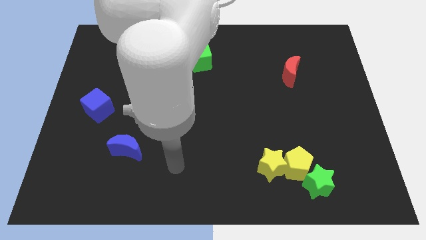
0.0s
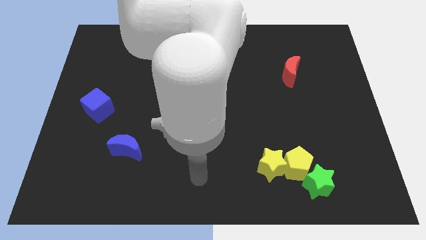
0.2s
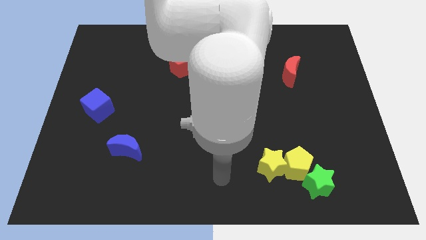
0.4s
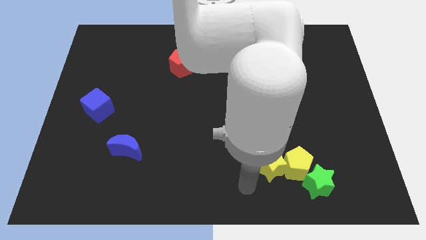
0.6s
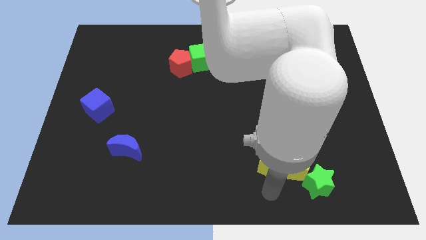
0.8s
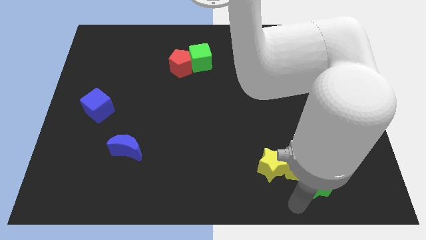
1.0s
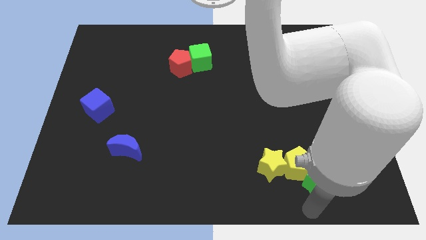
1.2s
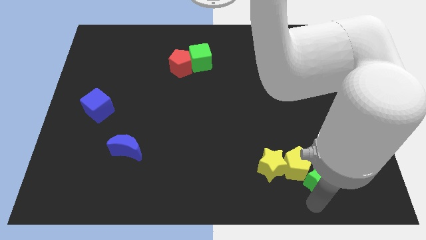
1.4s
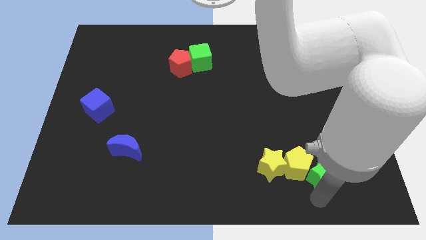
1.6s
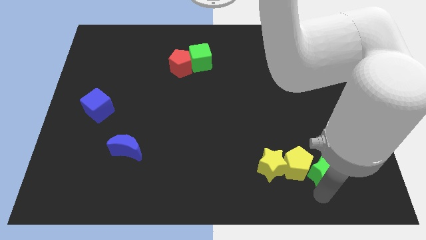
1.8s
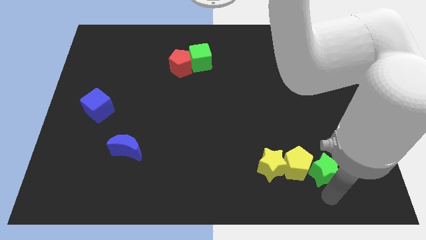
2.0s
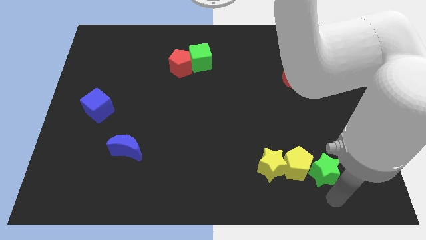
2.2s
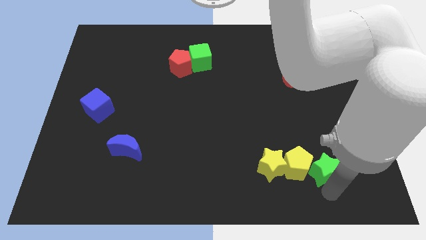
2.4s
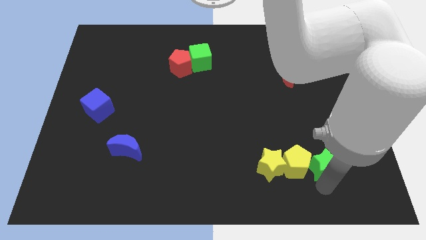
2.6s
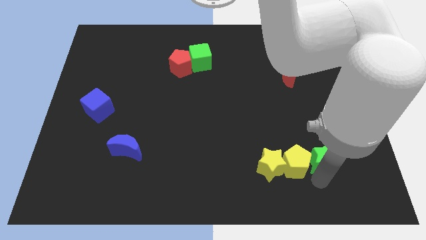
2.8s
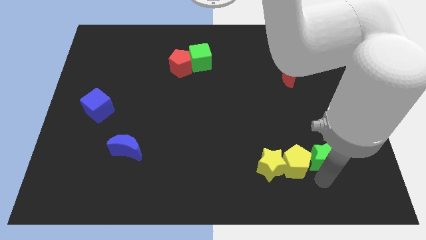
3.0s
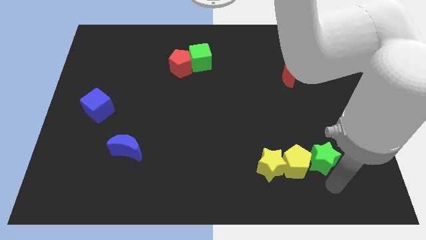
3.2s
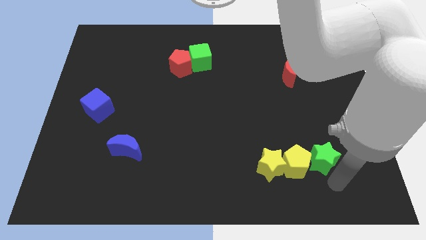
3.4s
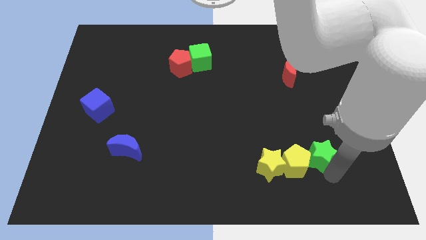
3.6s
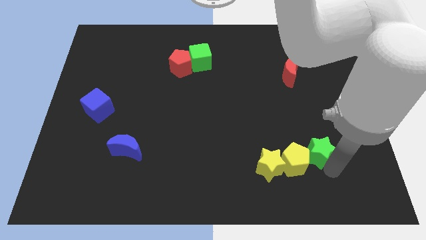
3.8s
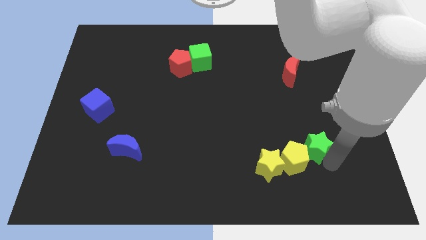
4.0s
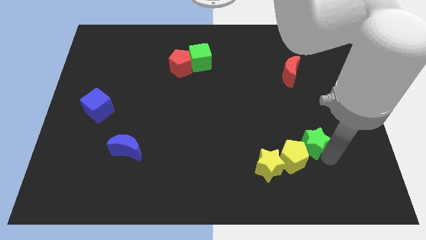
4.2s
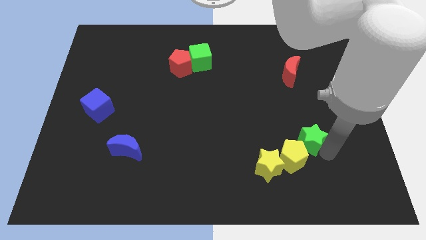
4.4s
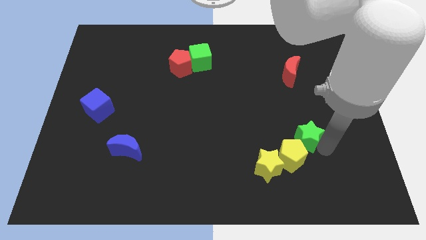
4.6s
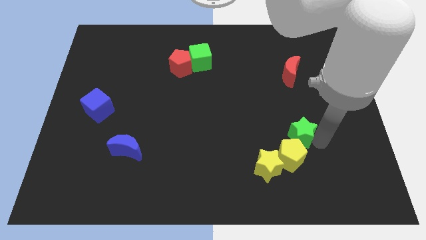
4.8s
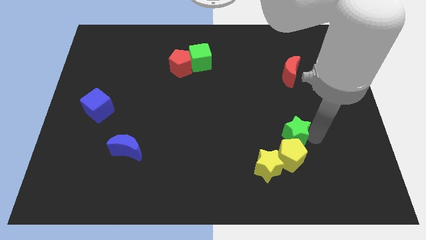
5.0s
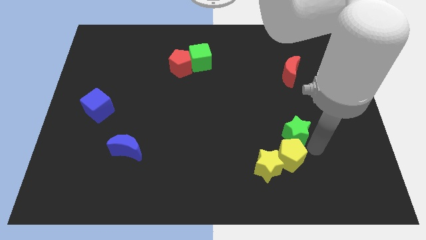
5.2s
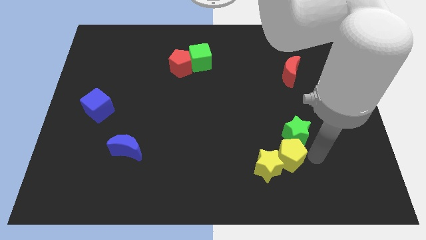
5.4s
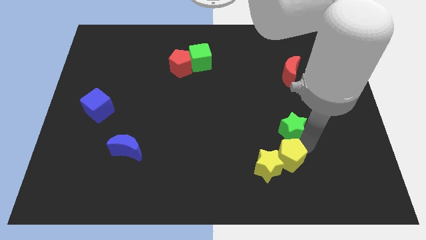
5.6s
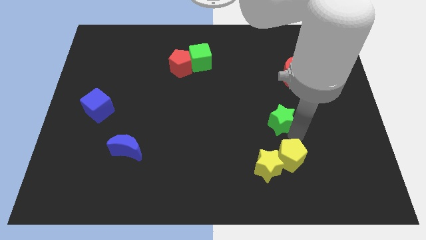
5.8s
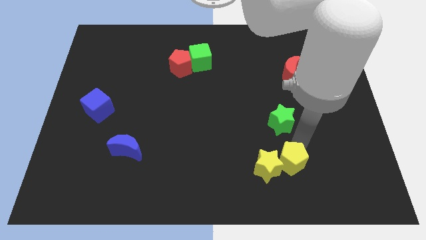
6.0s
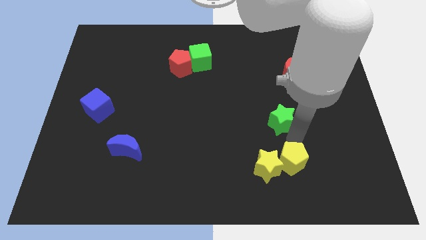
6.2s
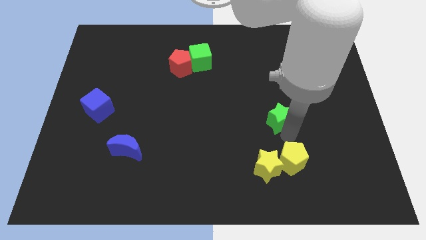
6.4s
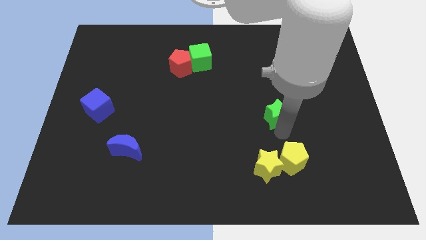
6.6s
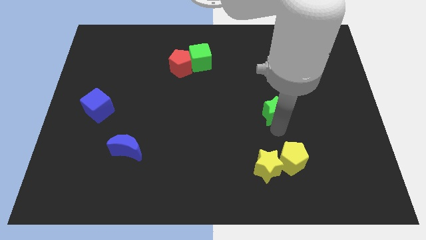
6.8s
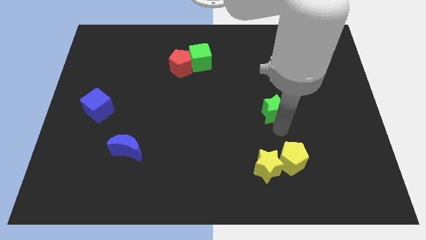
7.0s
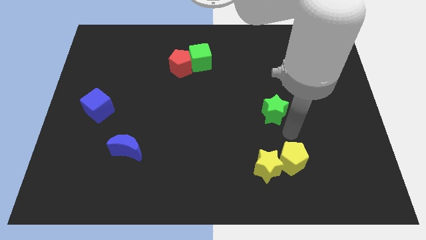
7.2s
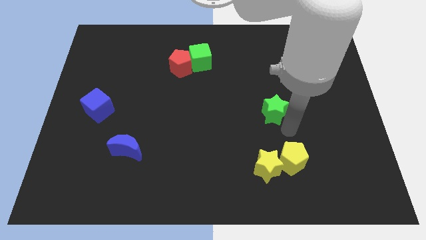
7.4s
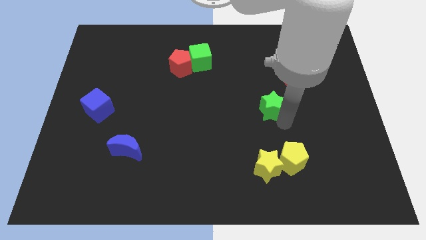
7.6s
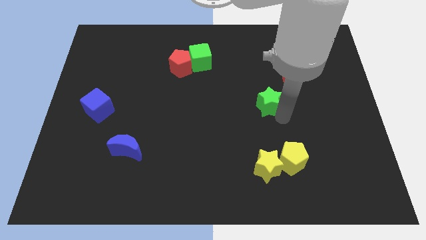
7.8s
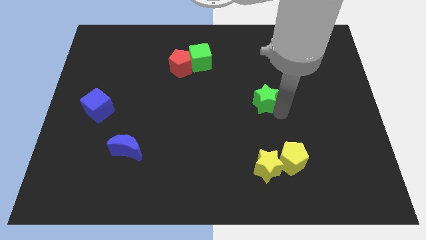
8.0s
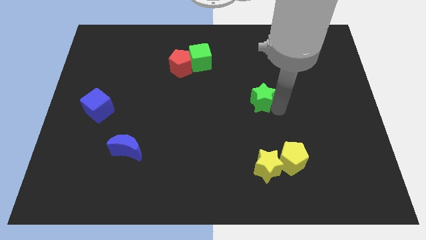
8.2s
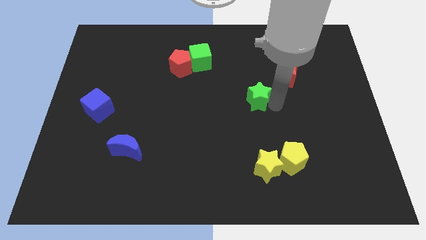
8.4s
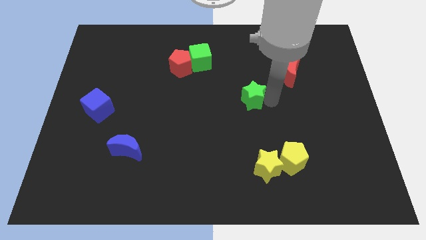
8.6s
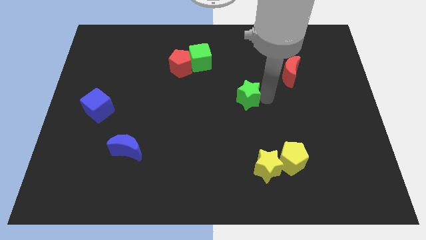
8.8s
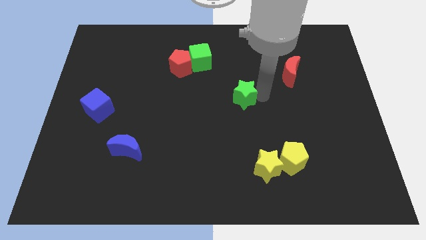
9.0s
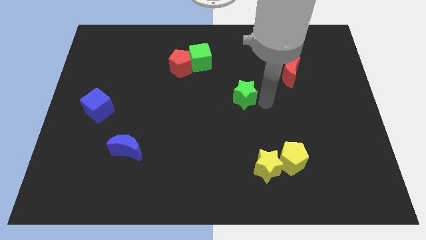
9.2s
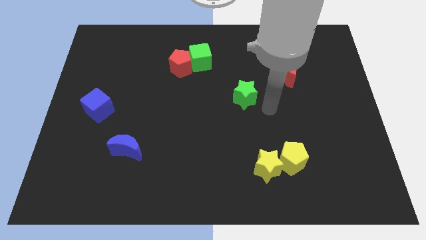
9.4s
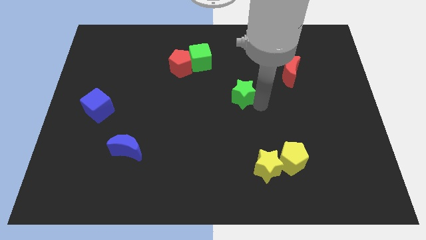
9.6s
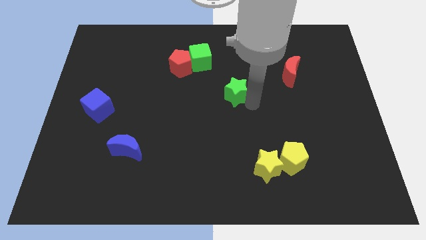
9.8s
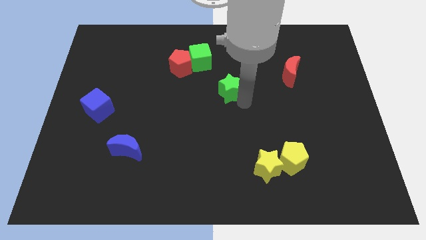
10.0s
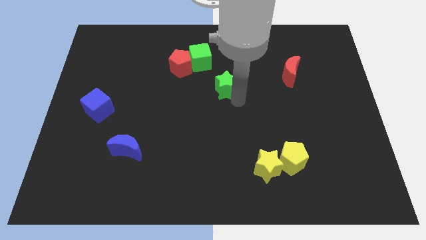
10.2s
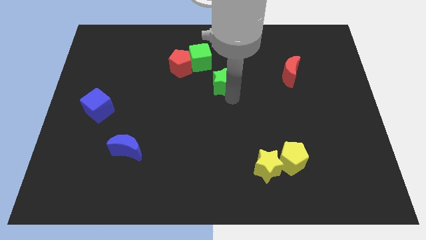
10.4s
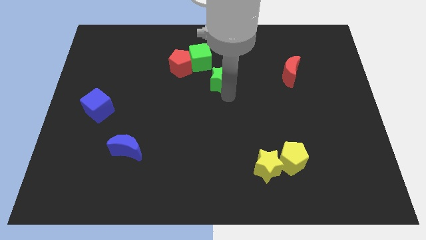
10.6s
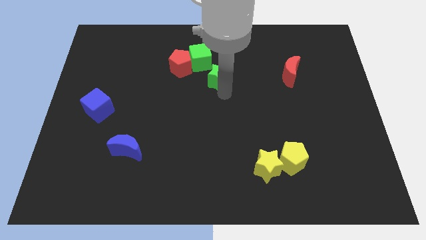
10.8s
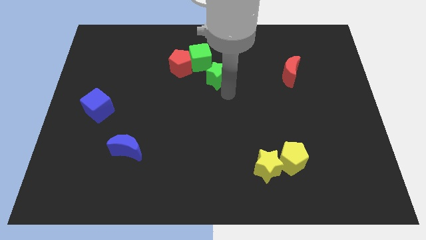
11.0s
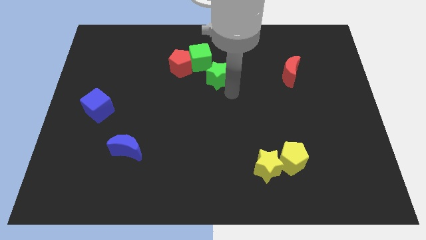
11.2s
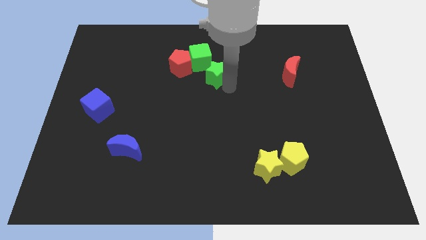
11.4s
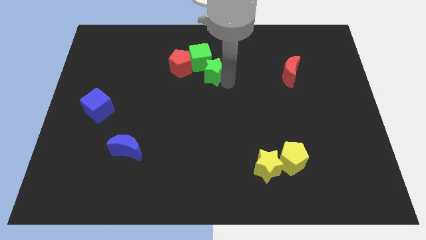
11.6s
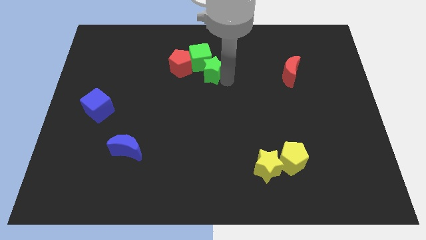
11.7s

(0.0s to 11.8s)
move the green star next to the green cube

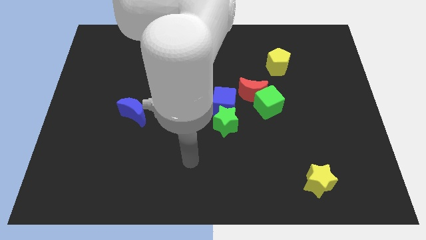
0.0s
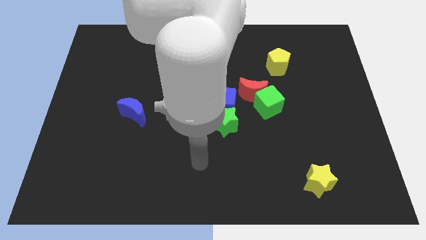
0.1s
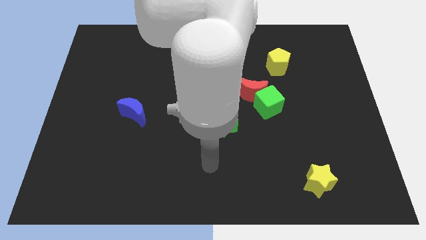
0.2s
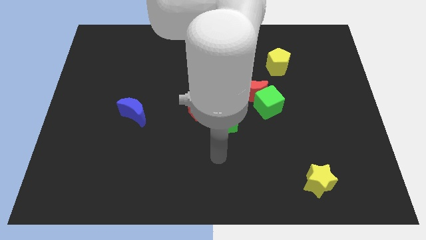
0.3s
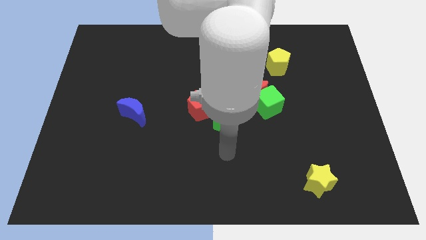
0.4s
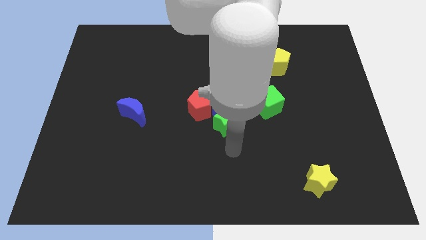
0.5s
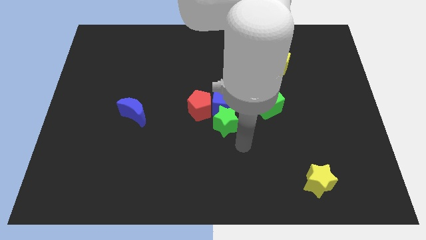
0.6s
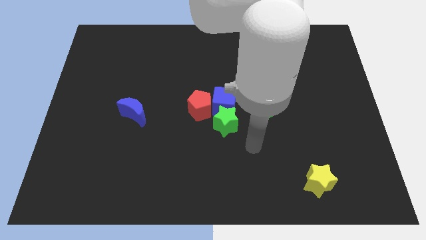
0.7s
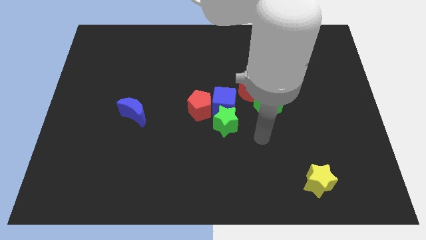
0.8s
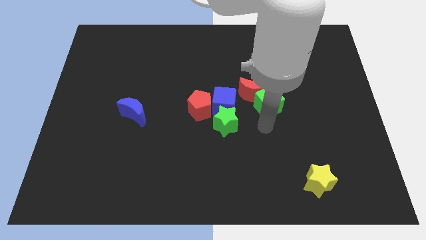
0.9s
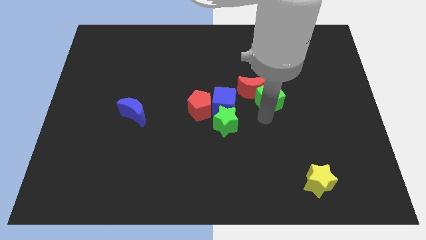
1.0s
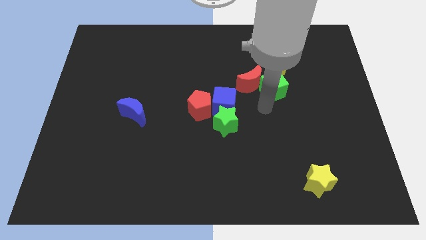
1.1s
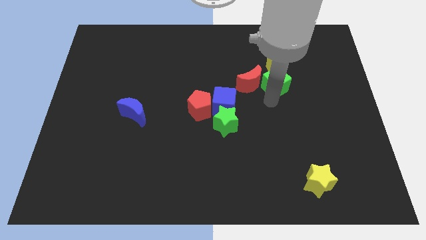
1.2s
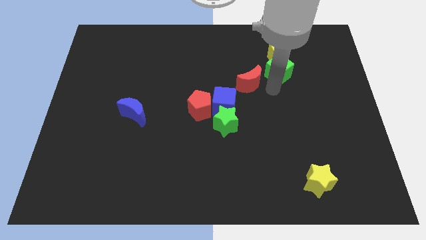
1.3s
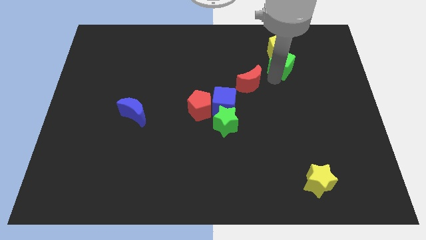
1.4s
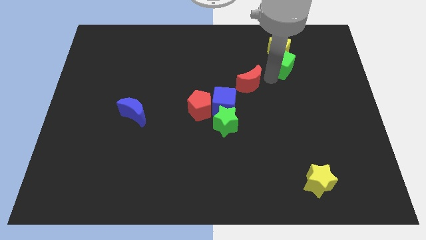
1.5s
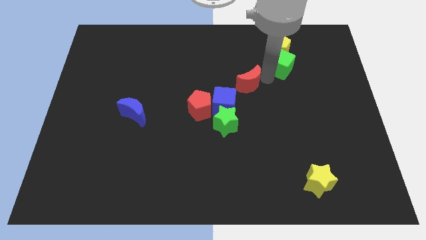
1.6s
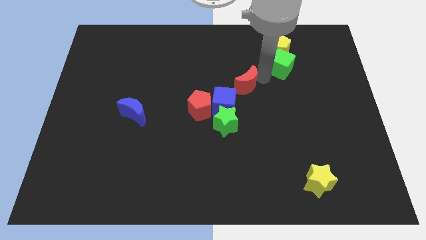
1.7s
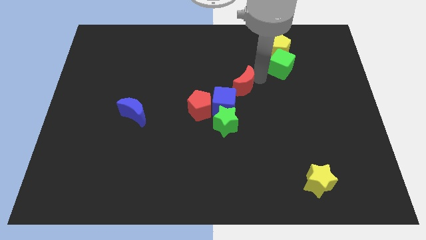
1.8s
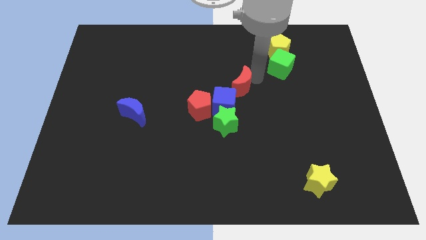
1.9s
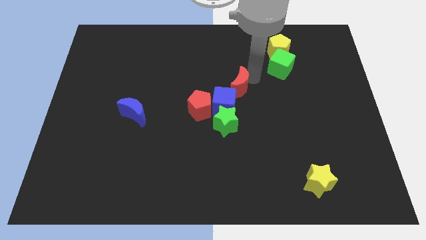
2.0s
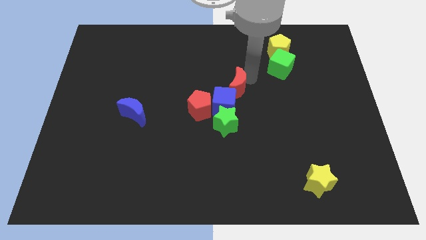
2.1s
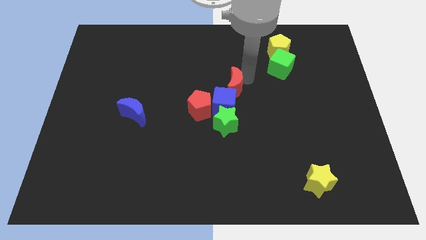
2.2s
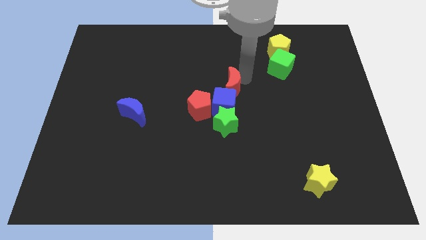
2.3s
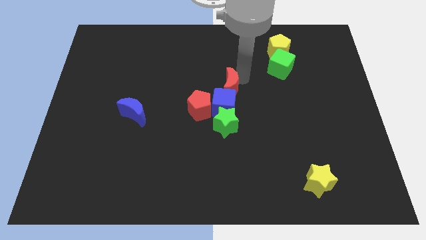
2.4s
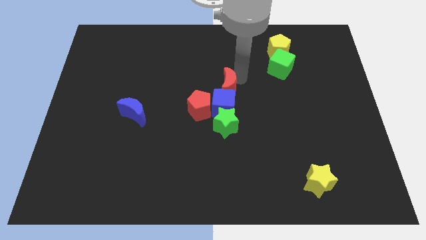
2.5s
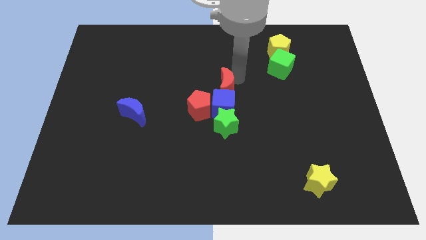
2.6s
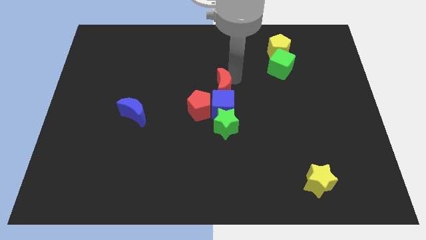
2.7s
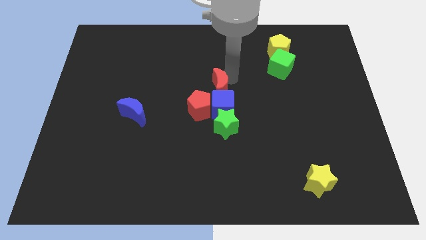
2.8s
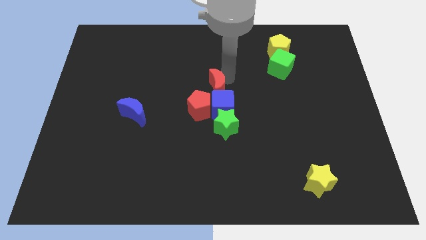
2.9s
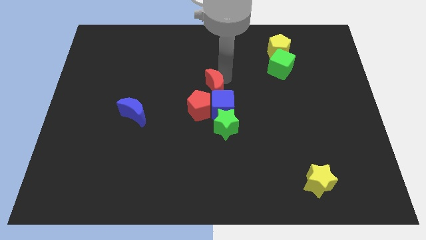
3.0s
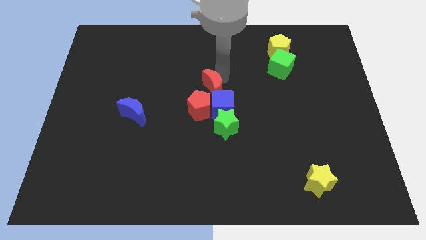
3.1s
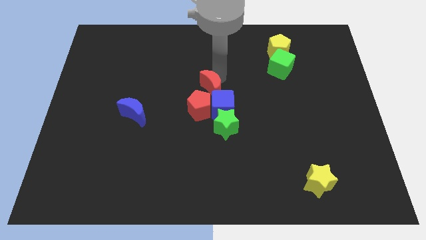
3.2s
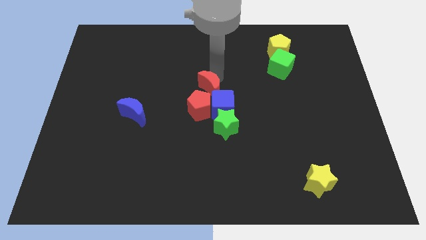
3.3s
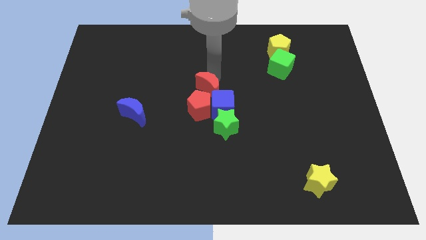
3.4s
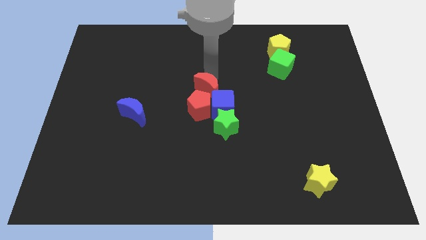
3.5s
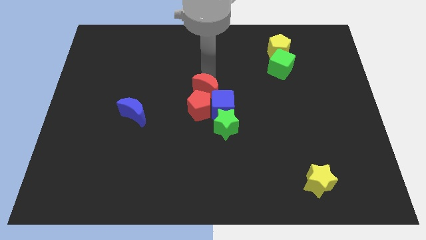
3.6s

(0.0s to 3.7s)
slide the red moon close to the red pentagon
